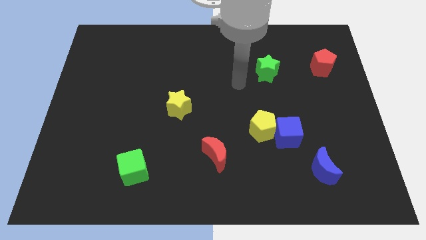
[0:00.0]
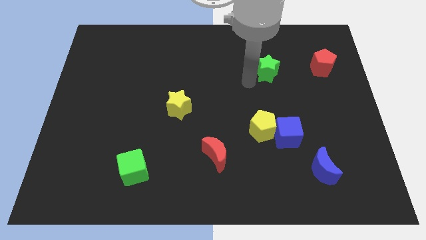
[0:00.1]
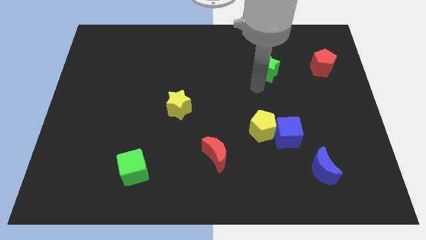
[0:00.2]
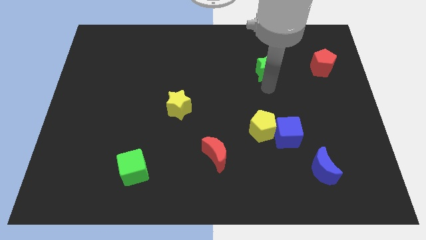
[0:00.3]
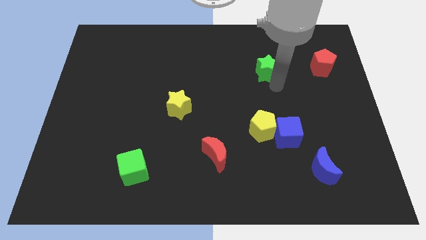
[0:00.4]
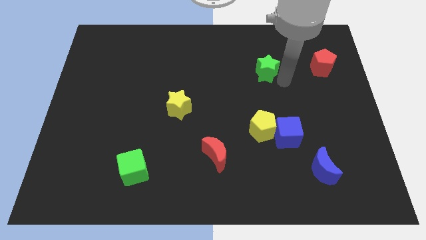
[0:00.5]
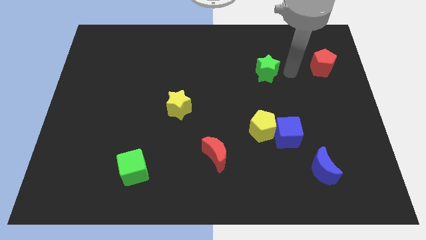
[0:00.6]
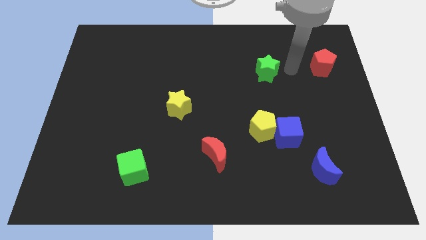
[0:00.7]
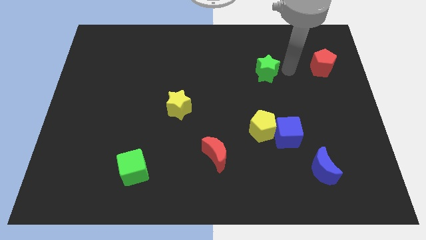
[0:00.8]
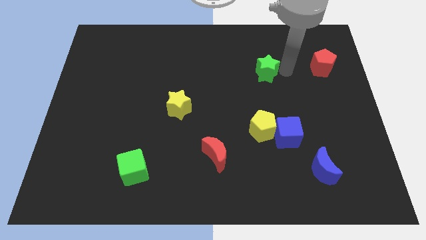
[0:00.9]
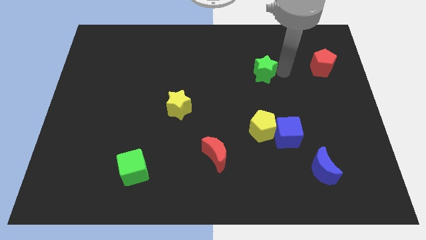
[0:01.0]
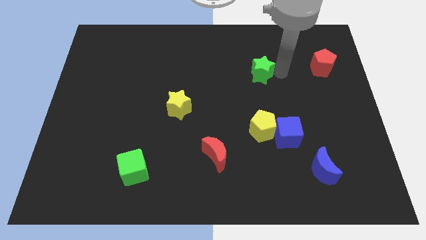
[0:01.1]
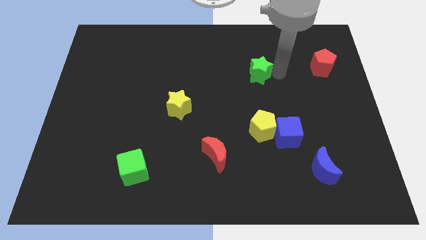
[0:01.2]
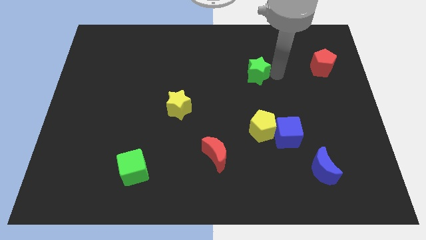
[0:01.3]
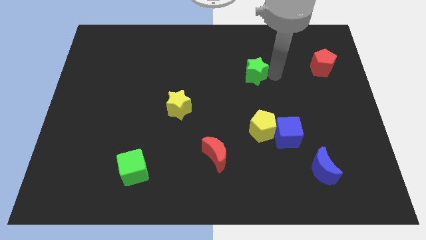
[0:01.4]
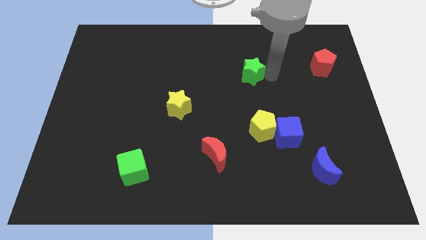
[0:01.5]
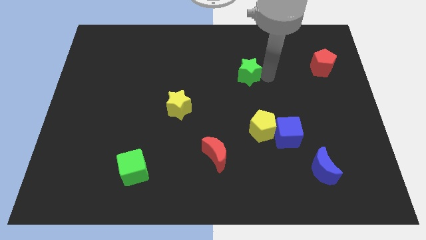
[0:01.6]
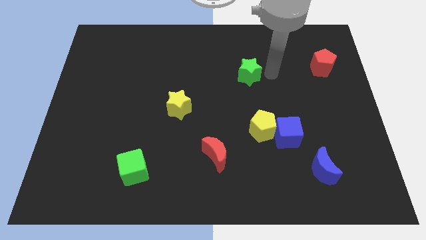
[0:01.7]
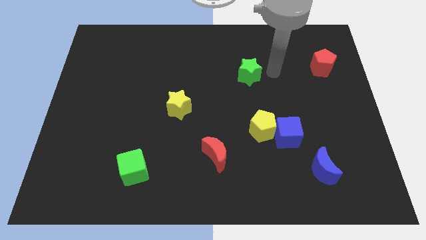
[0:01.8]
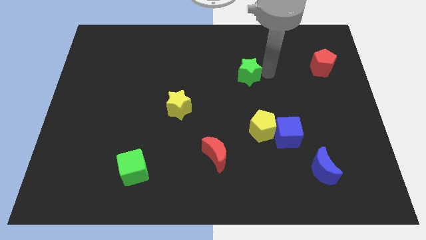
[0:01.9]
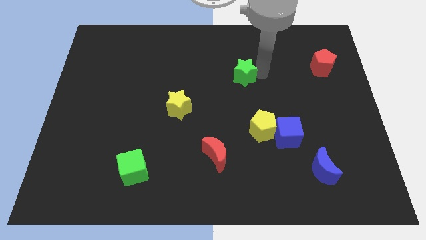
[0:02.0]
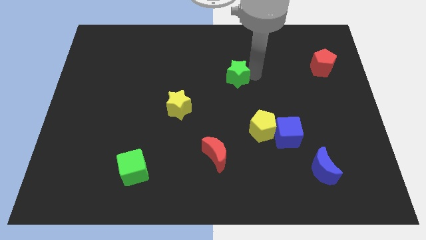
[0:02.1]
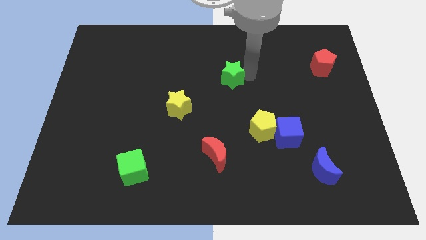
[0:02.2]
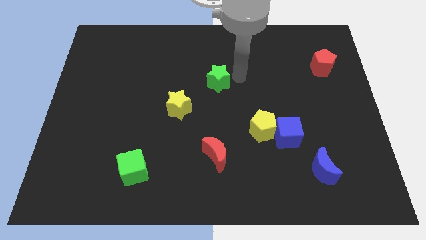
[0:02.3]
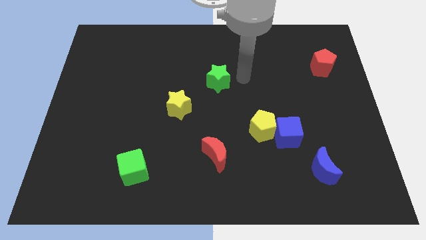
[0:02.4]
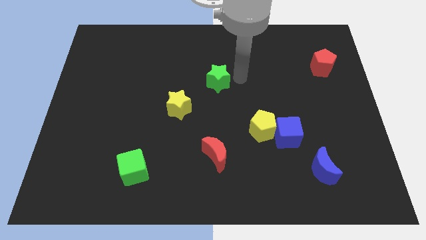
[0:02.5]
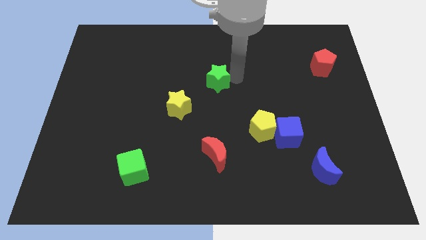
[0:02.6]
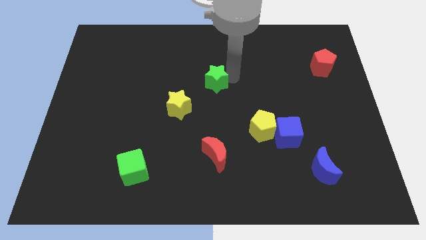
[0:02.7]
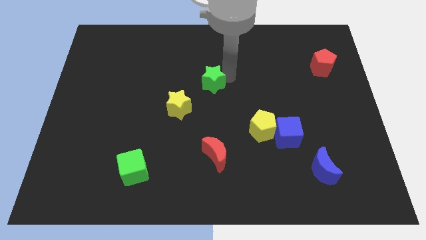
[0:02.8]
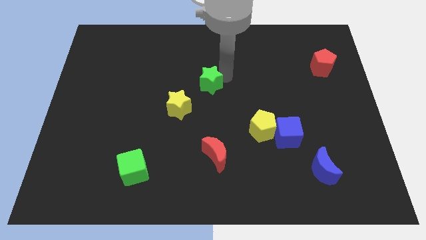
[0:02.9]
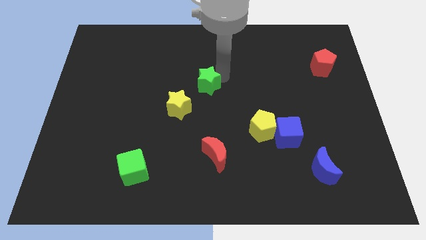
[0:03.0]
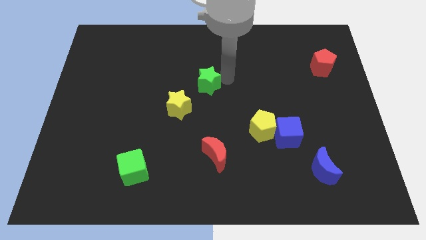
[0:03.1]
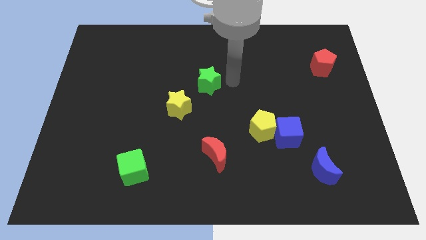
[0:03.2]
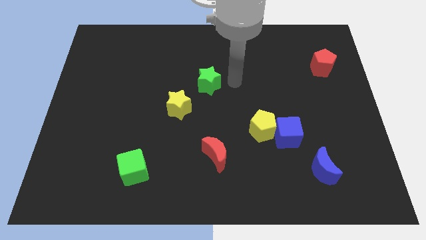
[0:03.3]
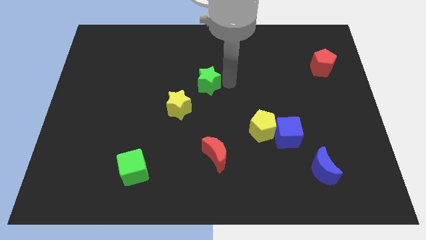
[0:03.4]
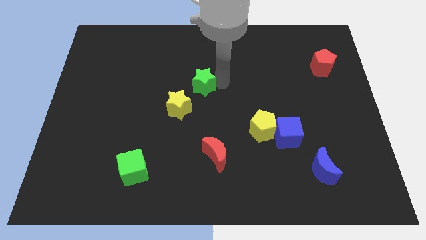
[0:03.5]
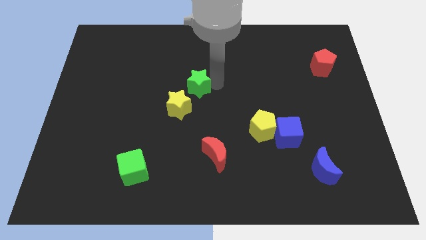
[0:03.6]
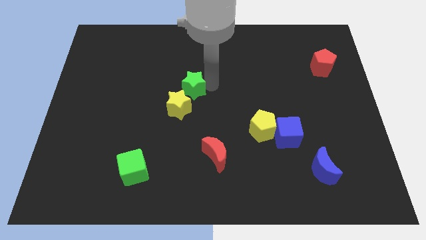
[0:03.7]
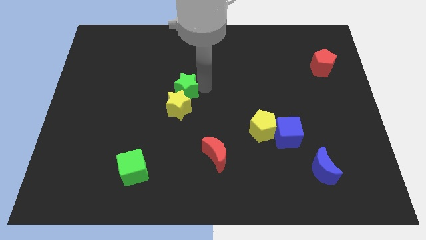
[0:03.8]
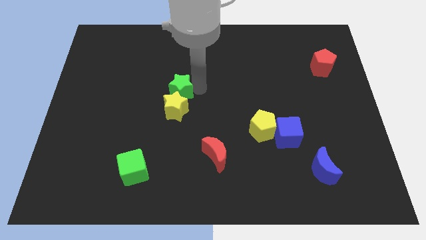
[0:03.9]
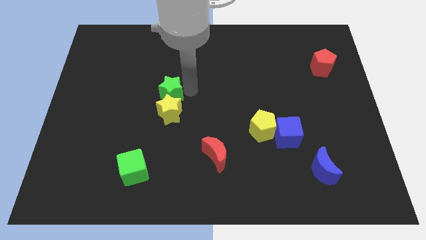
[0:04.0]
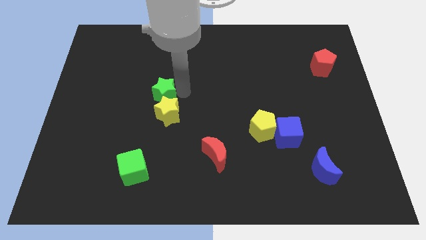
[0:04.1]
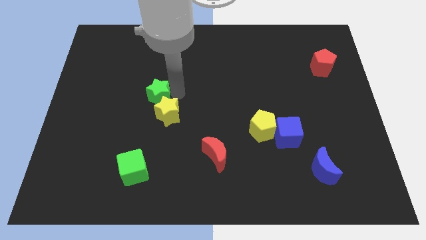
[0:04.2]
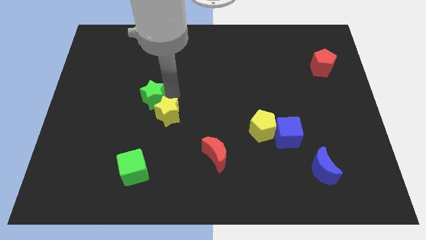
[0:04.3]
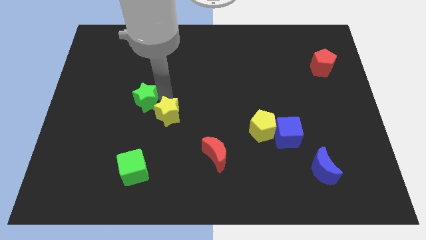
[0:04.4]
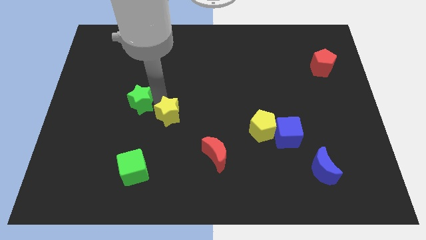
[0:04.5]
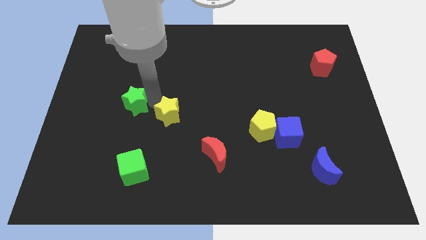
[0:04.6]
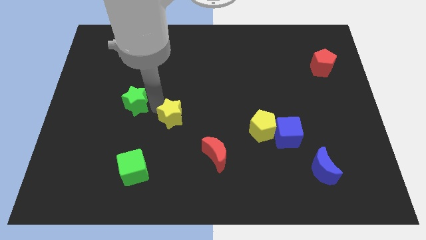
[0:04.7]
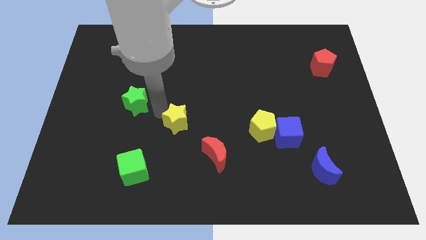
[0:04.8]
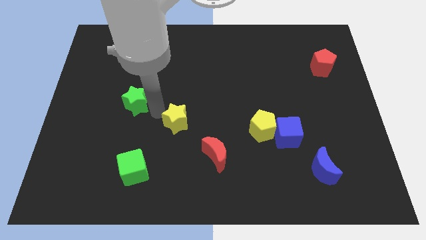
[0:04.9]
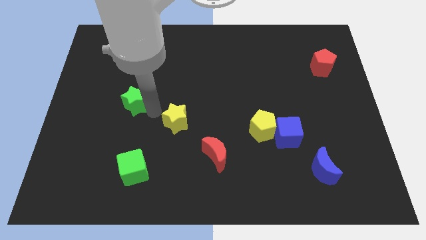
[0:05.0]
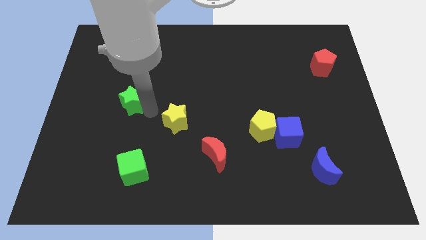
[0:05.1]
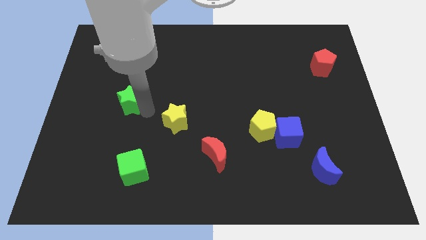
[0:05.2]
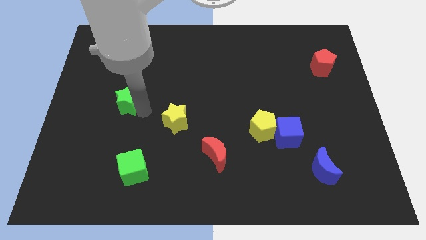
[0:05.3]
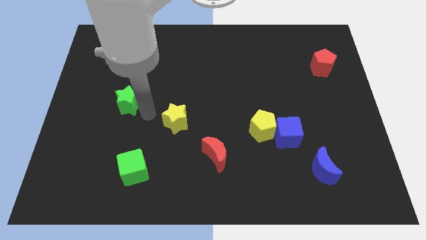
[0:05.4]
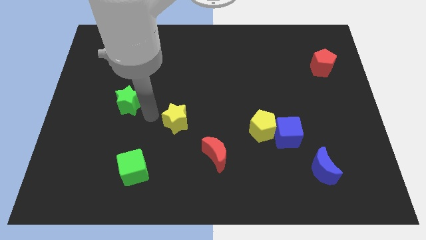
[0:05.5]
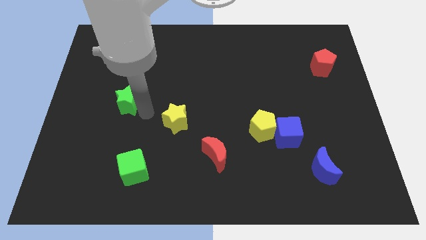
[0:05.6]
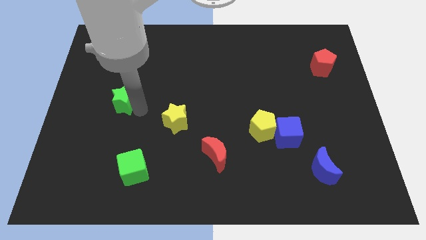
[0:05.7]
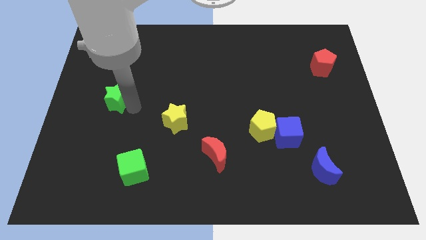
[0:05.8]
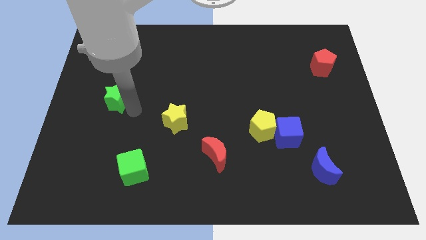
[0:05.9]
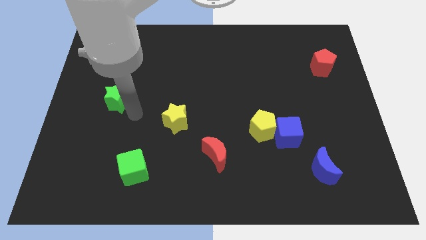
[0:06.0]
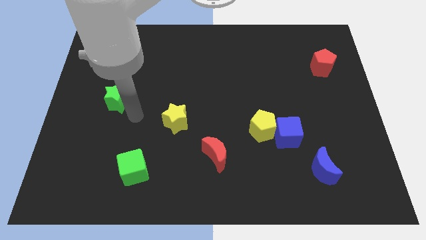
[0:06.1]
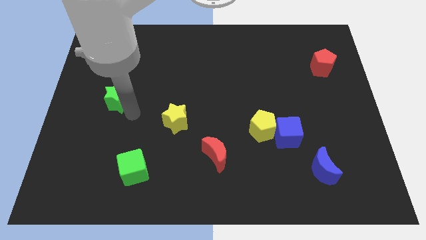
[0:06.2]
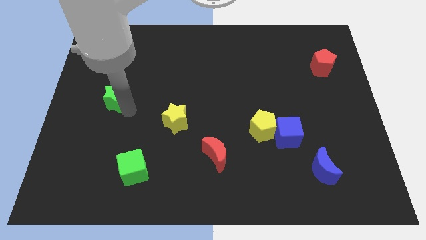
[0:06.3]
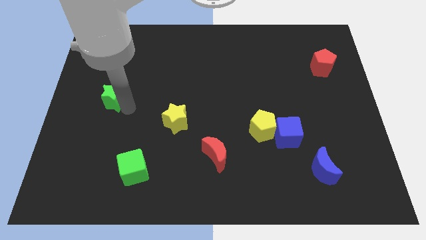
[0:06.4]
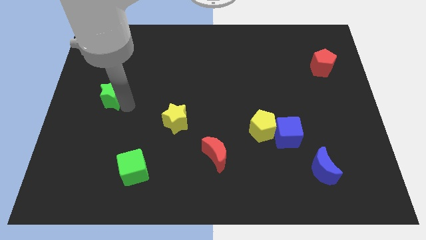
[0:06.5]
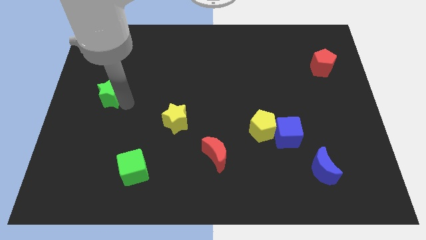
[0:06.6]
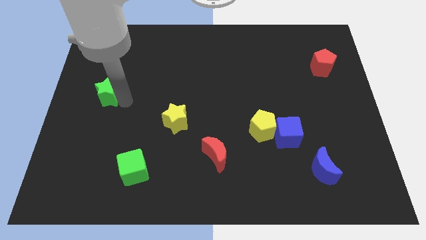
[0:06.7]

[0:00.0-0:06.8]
slide the green star to the left side of the board
